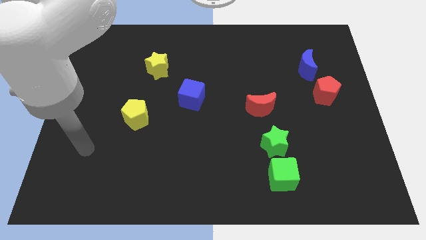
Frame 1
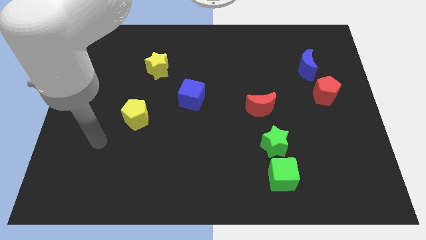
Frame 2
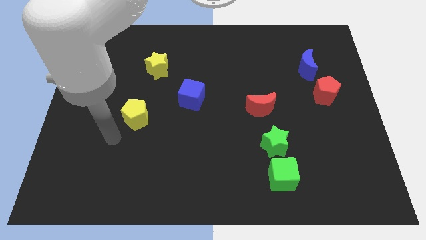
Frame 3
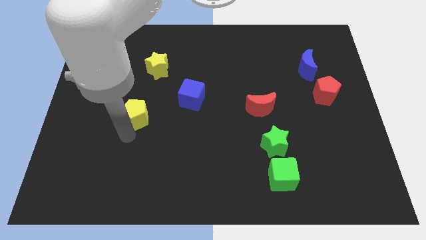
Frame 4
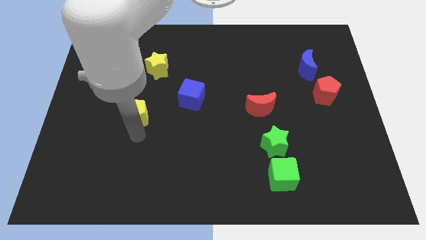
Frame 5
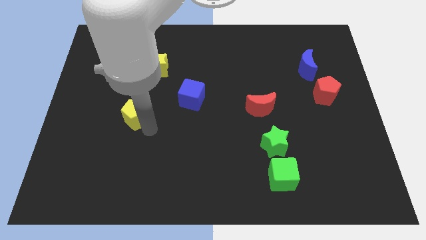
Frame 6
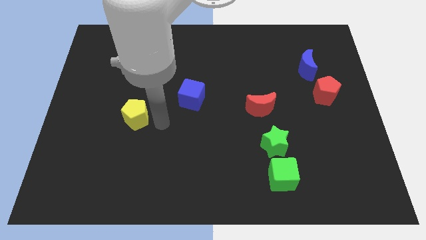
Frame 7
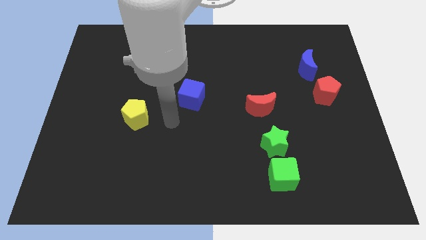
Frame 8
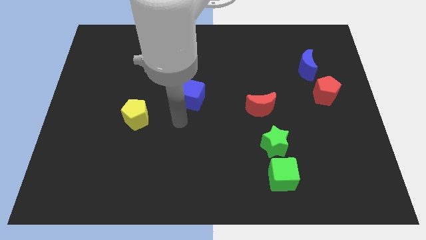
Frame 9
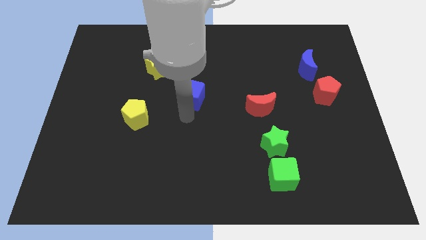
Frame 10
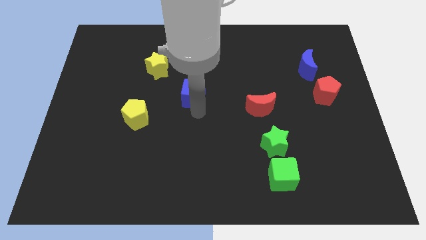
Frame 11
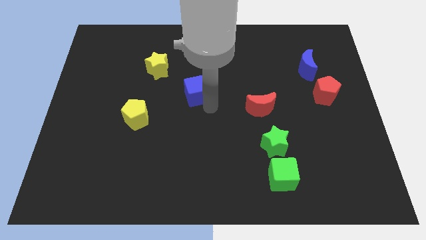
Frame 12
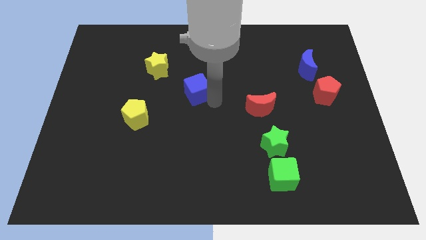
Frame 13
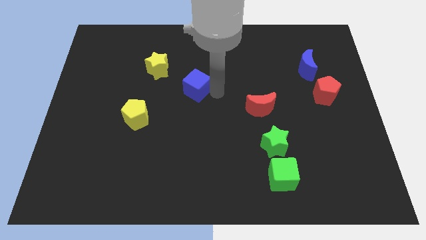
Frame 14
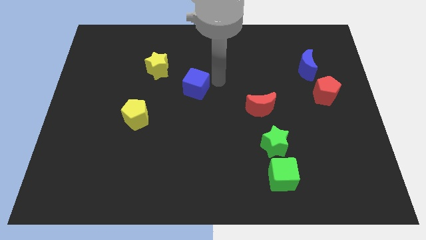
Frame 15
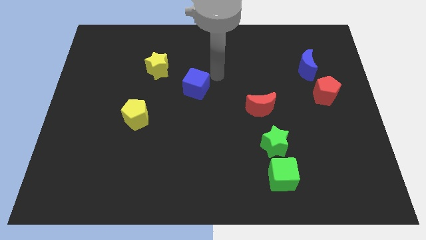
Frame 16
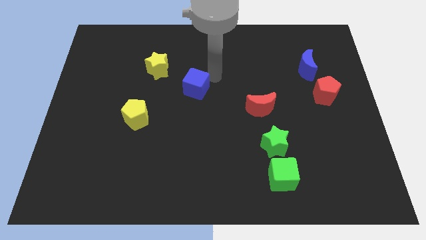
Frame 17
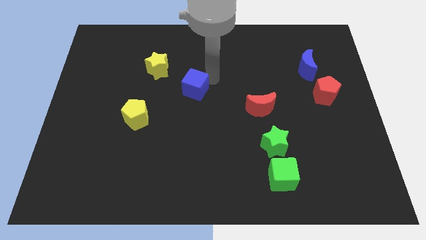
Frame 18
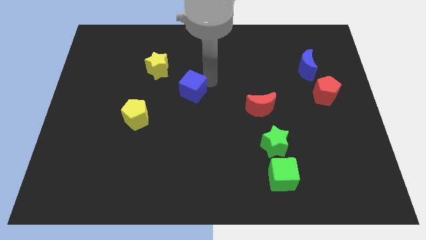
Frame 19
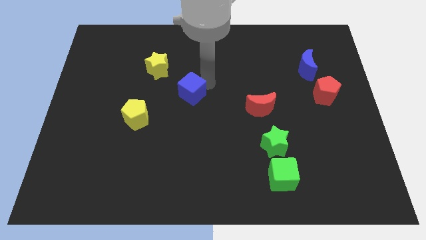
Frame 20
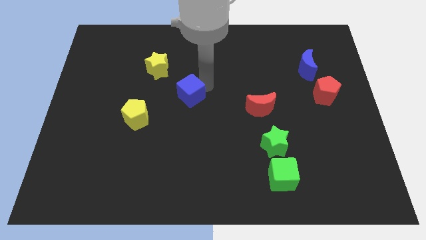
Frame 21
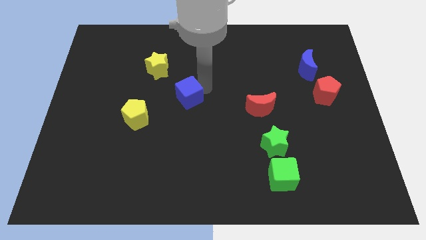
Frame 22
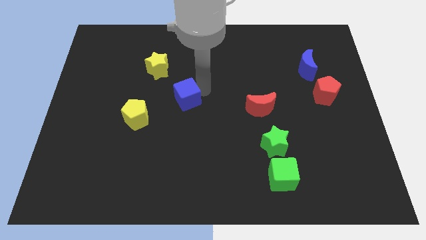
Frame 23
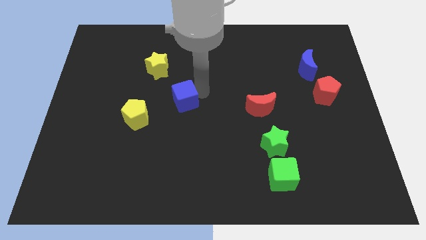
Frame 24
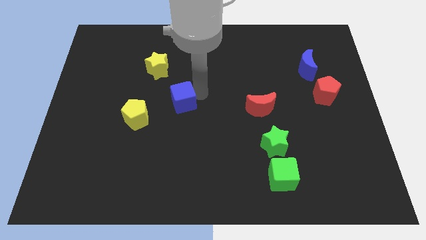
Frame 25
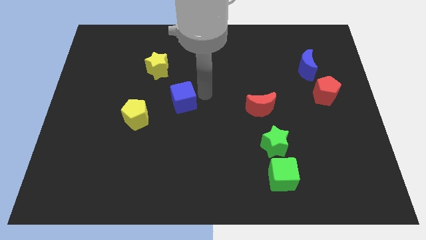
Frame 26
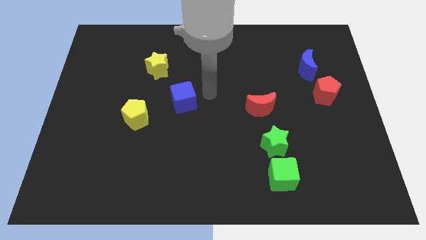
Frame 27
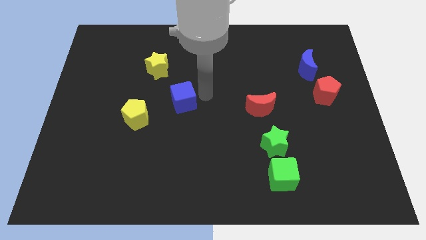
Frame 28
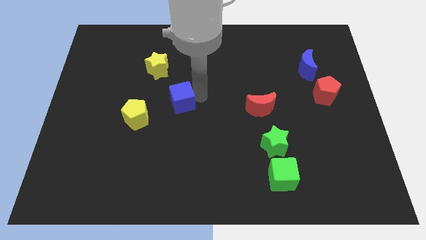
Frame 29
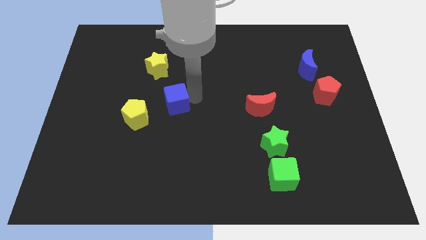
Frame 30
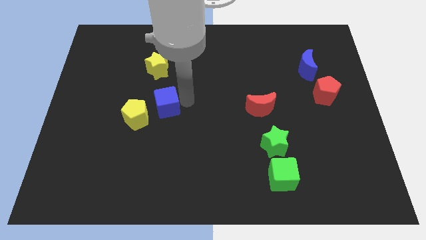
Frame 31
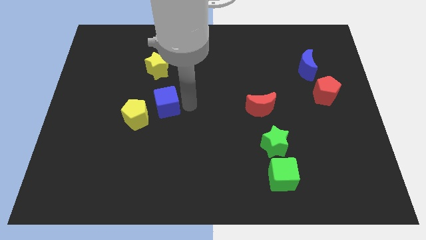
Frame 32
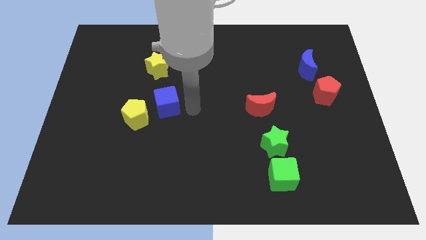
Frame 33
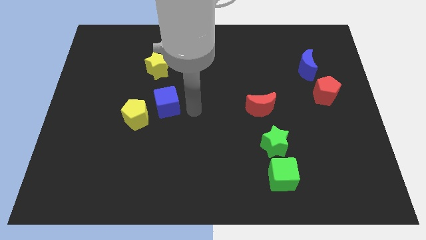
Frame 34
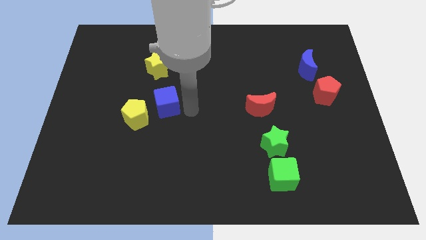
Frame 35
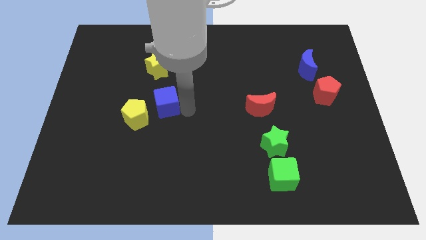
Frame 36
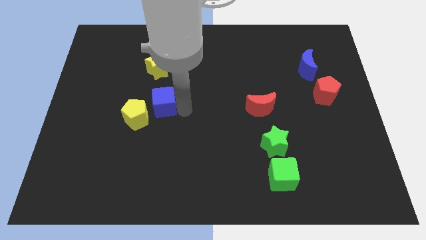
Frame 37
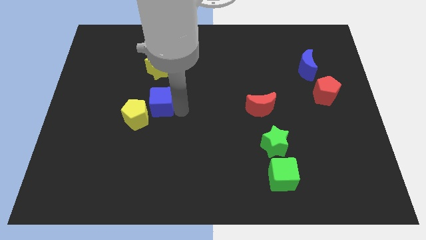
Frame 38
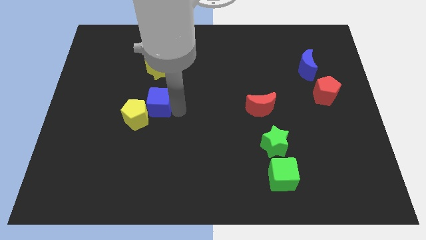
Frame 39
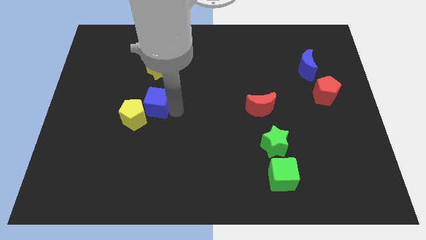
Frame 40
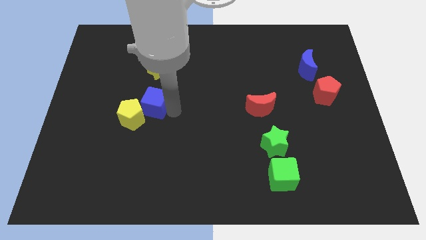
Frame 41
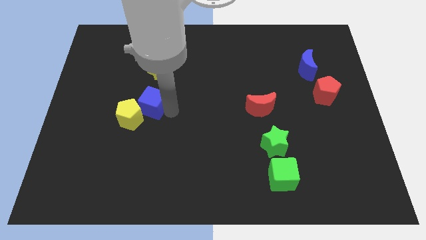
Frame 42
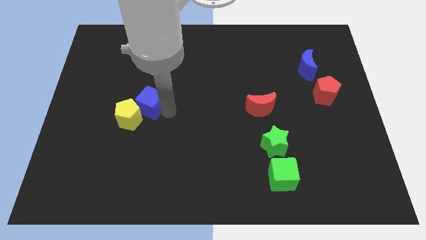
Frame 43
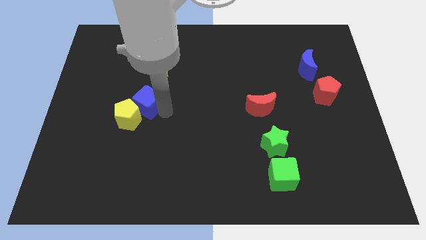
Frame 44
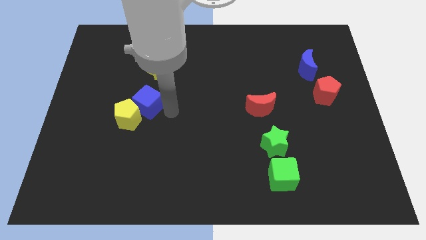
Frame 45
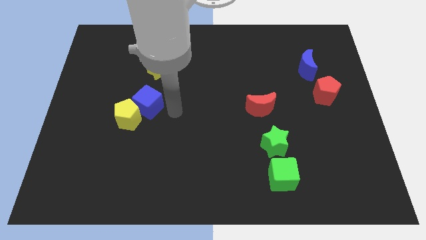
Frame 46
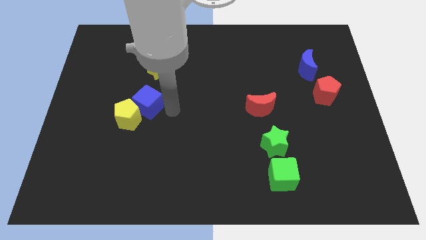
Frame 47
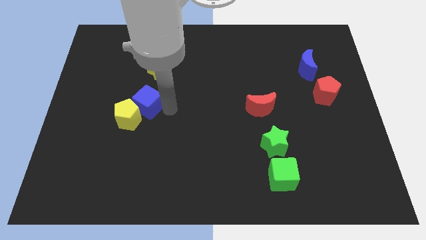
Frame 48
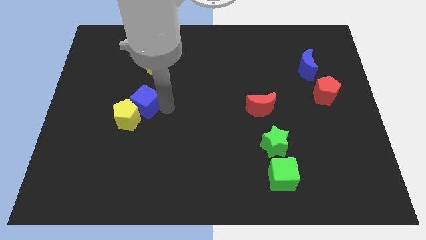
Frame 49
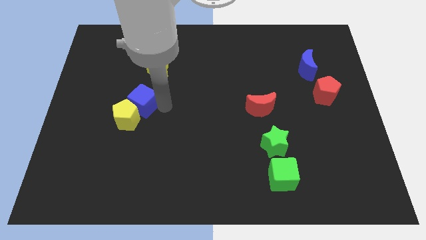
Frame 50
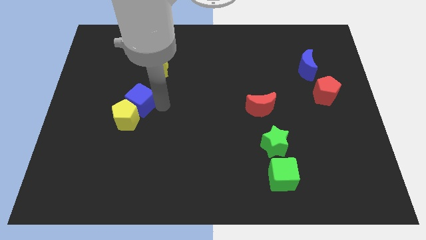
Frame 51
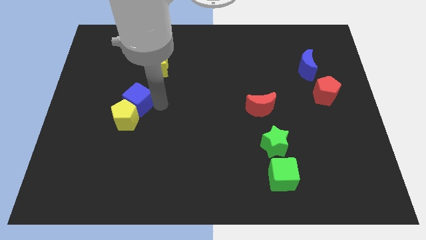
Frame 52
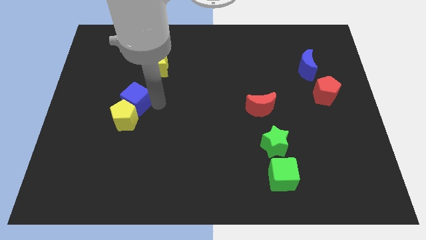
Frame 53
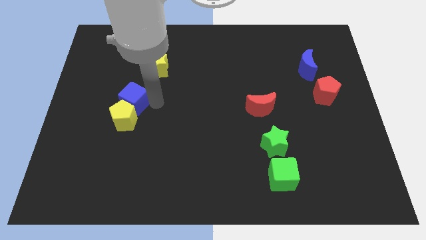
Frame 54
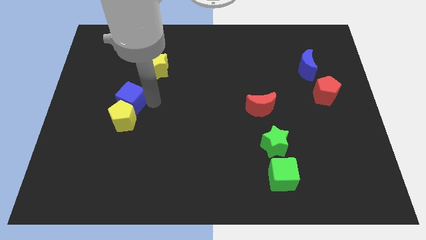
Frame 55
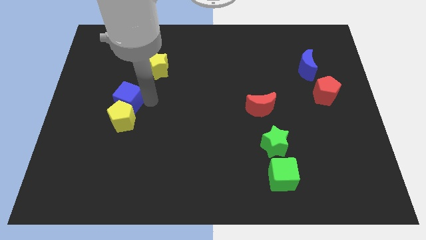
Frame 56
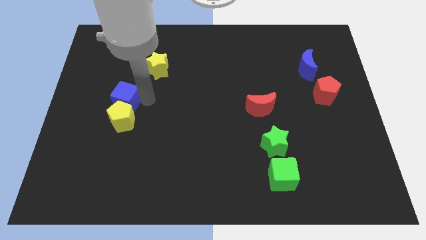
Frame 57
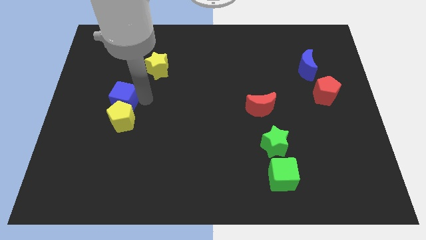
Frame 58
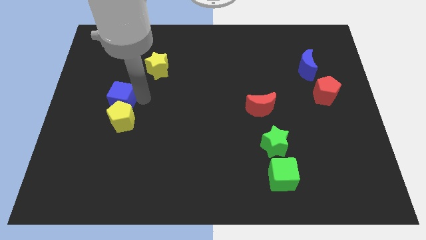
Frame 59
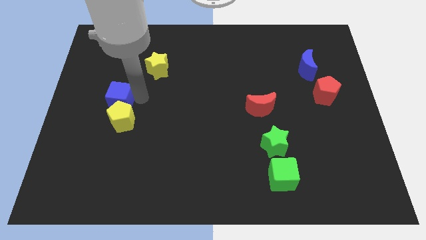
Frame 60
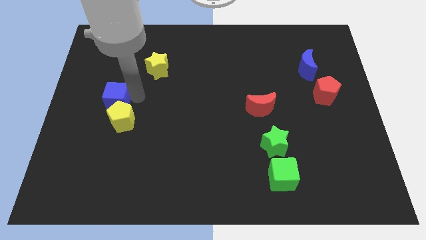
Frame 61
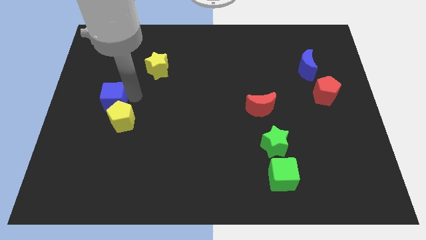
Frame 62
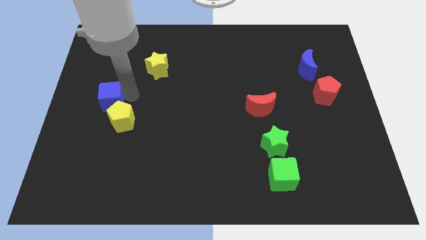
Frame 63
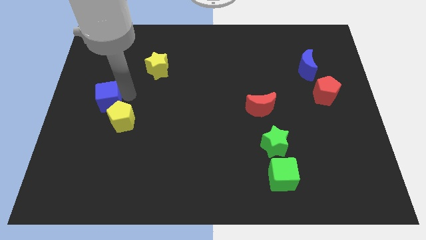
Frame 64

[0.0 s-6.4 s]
slide the blue cube to the left side
